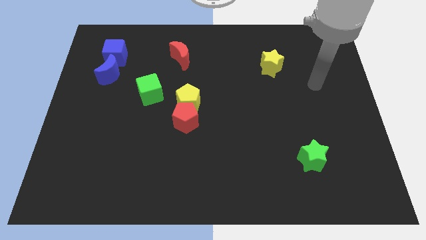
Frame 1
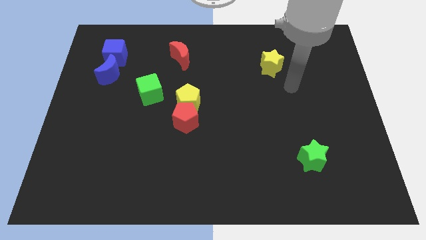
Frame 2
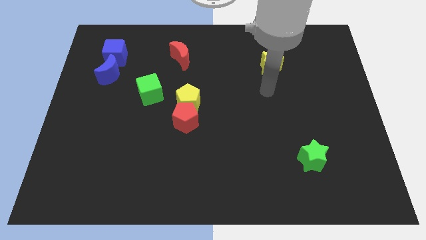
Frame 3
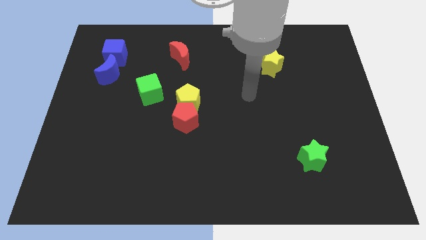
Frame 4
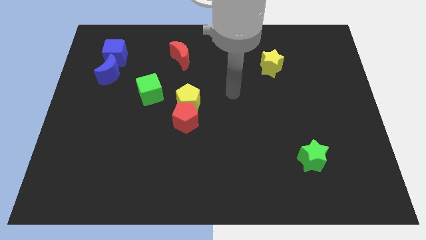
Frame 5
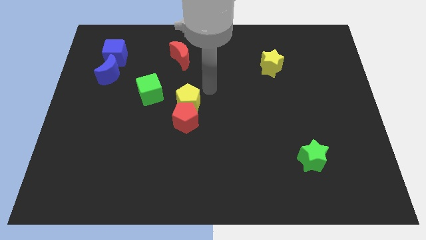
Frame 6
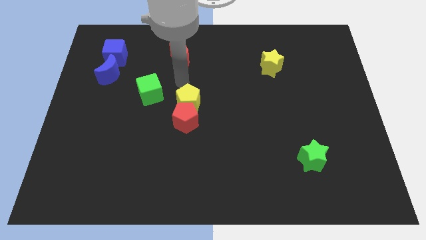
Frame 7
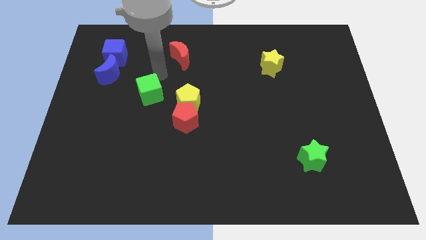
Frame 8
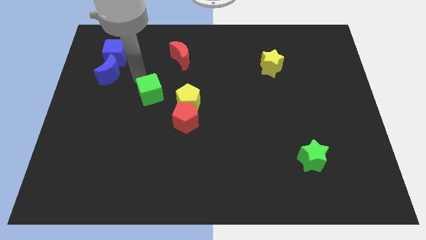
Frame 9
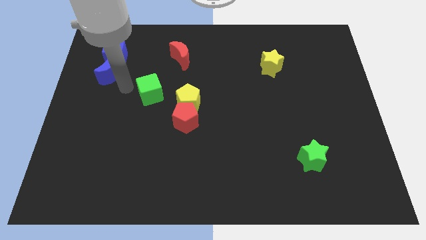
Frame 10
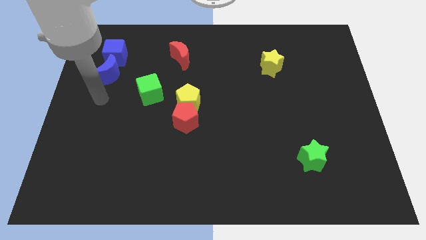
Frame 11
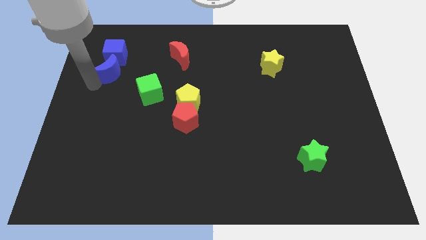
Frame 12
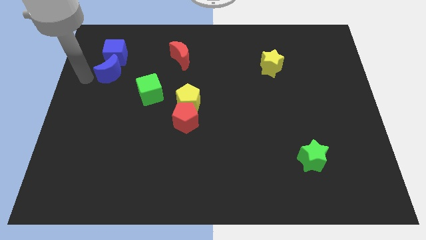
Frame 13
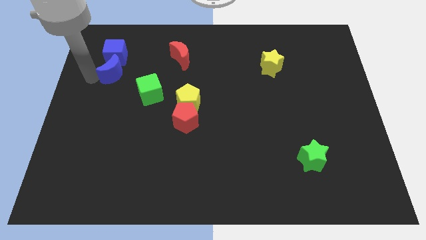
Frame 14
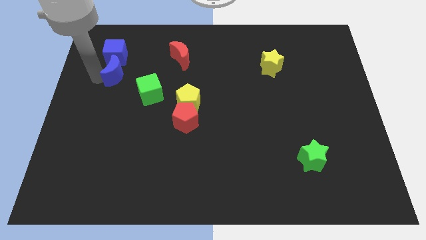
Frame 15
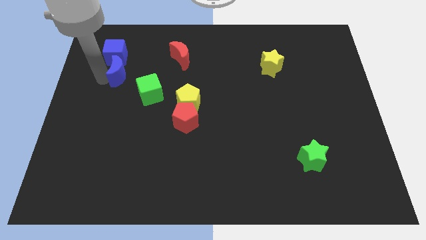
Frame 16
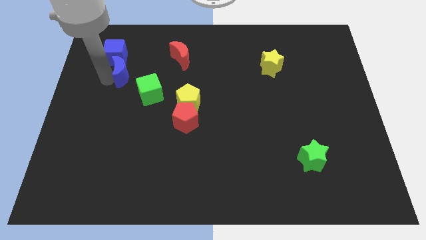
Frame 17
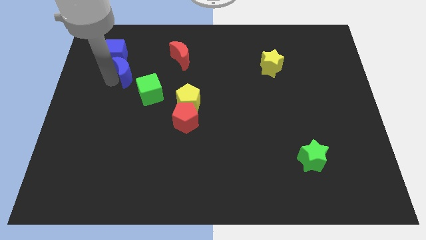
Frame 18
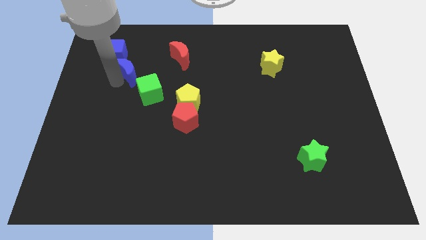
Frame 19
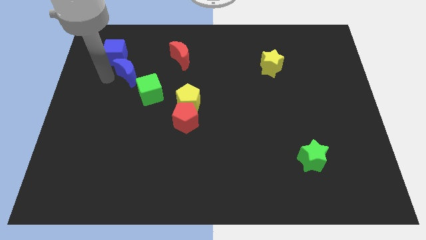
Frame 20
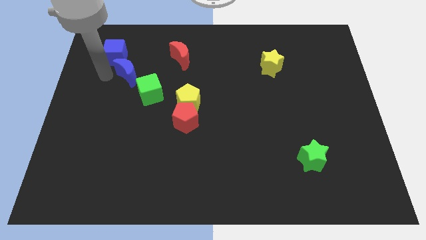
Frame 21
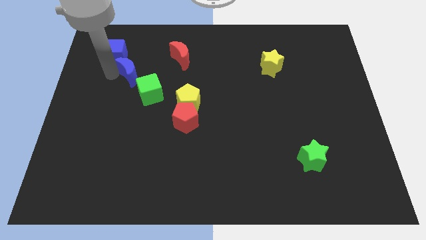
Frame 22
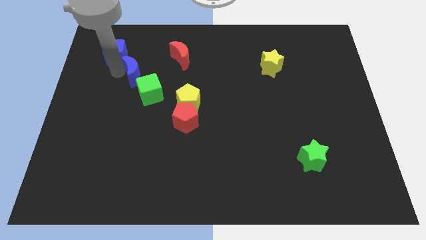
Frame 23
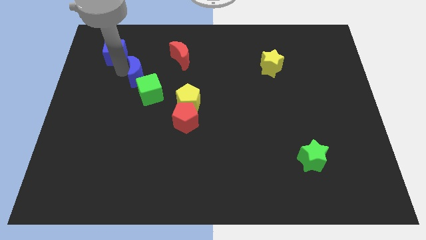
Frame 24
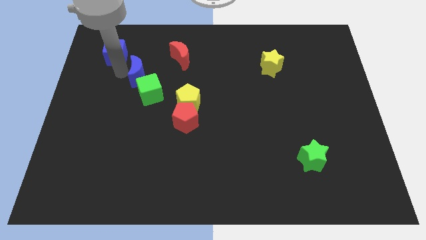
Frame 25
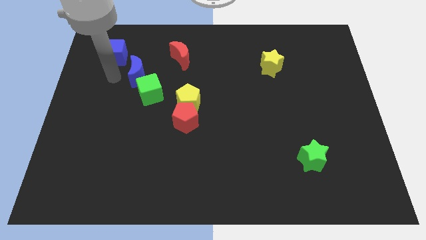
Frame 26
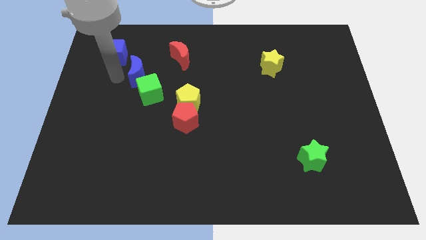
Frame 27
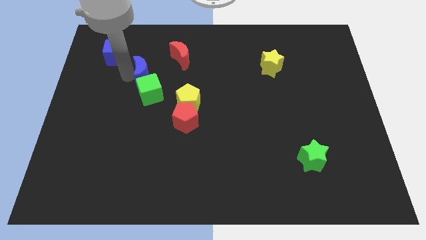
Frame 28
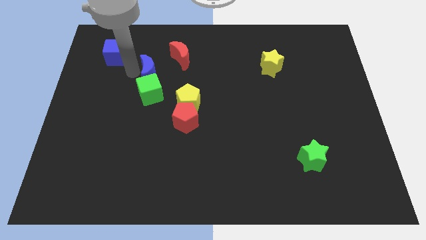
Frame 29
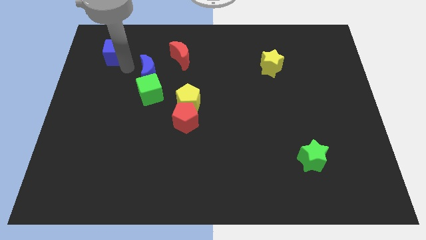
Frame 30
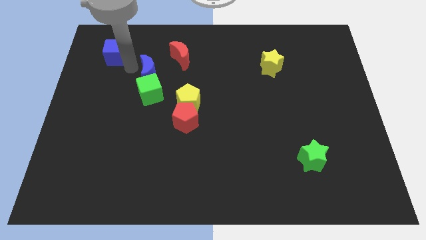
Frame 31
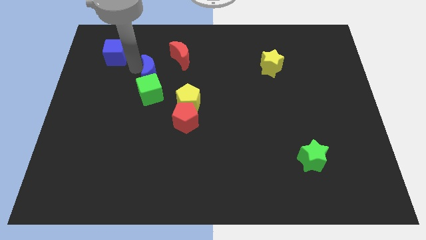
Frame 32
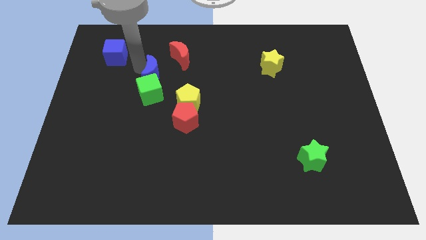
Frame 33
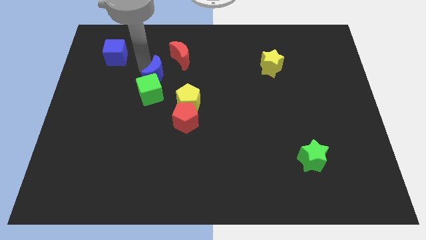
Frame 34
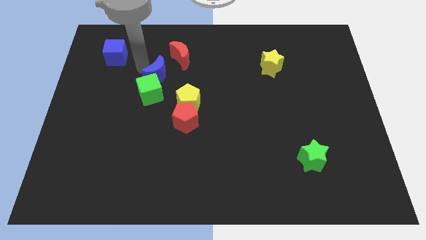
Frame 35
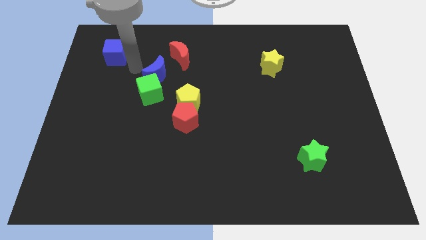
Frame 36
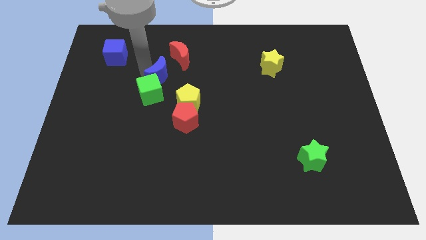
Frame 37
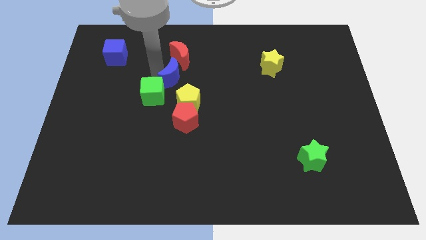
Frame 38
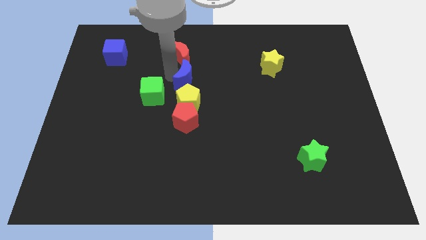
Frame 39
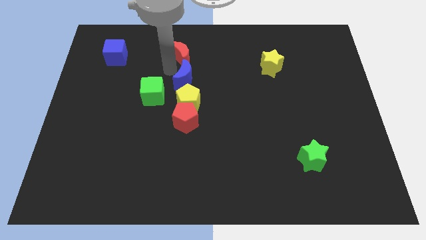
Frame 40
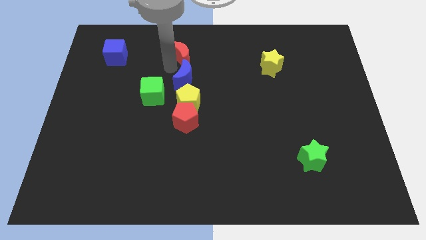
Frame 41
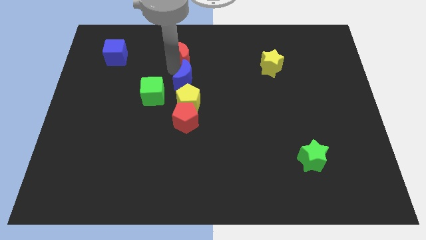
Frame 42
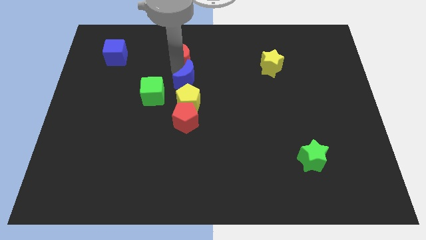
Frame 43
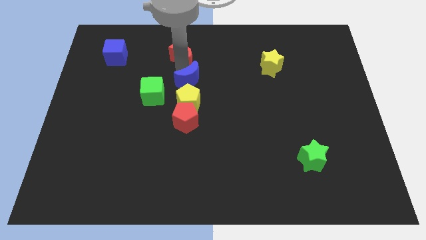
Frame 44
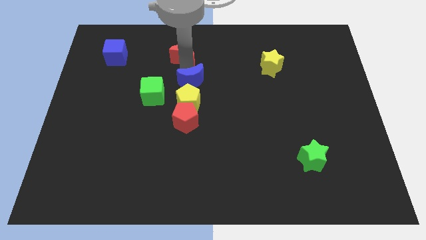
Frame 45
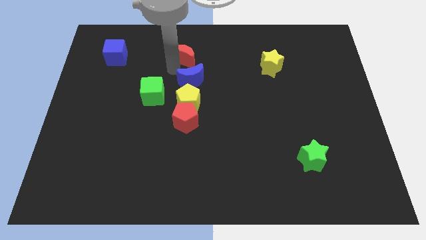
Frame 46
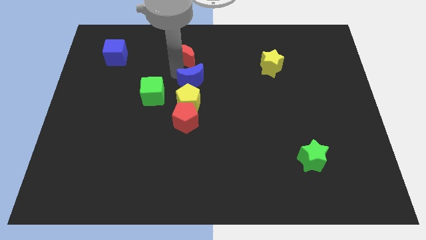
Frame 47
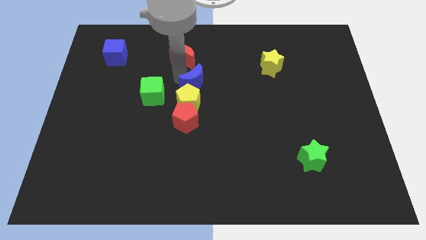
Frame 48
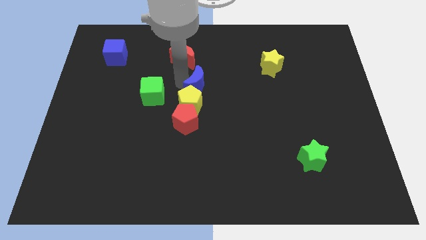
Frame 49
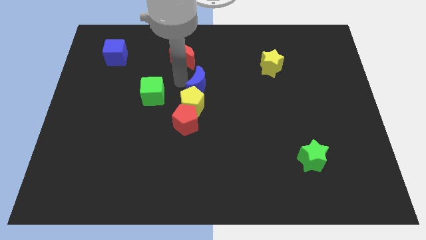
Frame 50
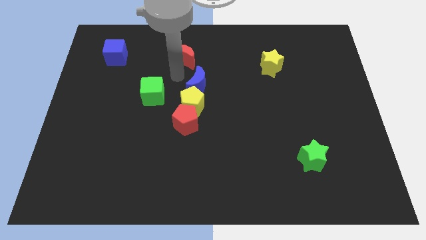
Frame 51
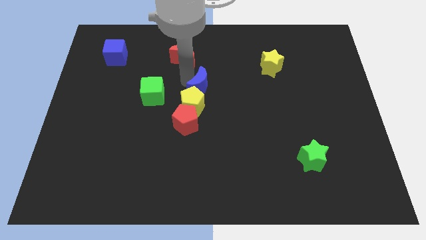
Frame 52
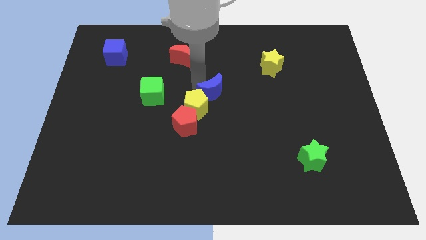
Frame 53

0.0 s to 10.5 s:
put the blue moon just right of the yellow pentagon

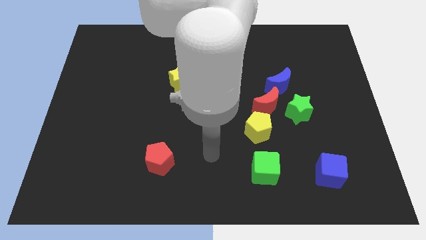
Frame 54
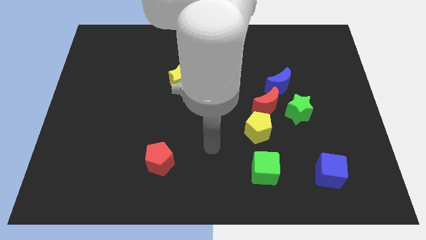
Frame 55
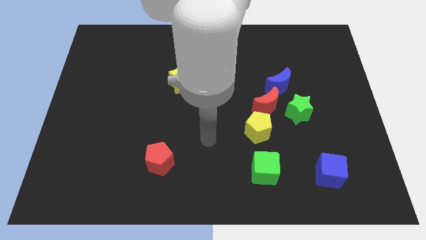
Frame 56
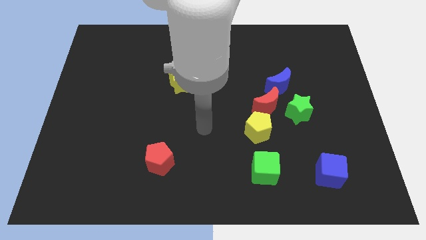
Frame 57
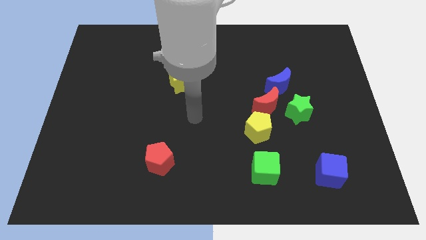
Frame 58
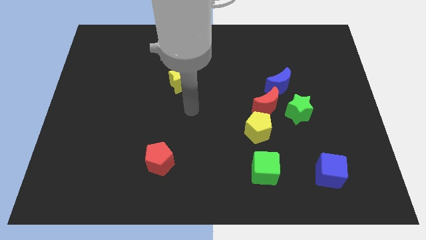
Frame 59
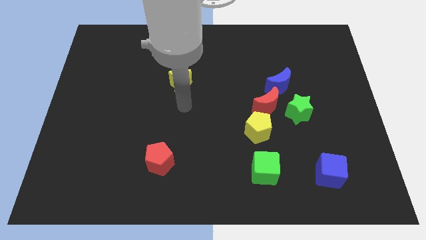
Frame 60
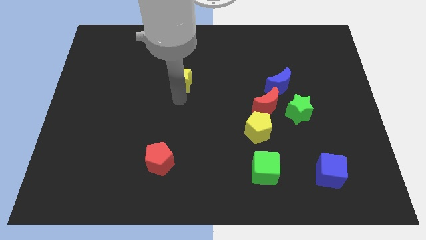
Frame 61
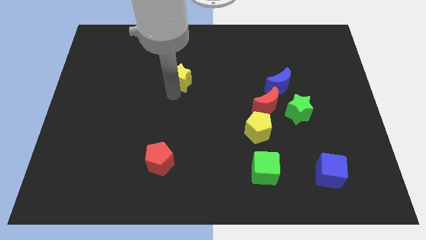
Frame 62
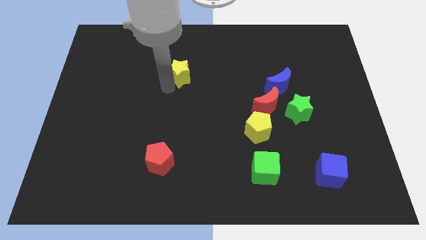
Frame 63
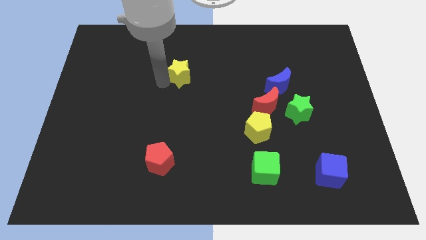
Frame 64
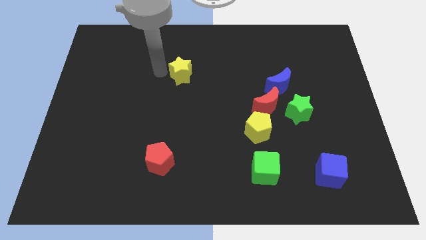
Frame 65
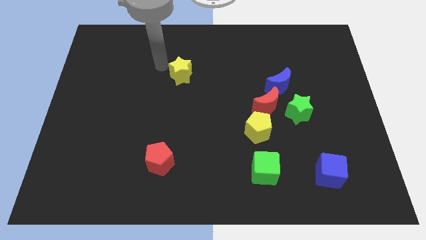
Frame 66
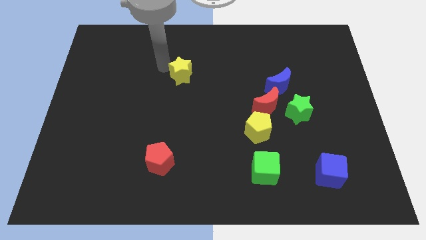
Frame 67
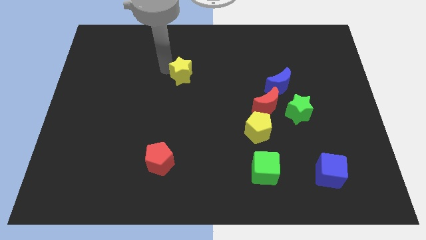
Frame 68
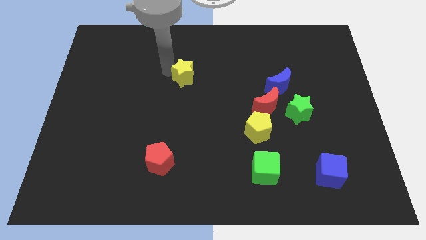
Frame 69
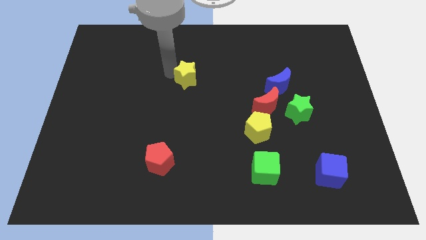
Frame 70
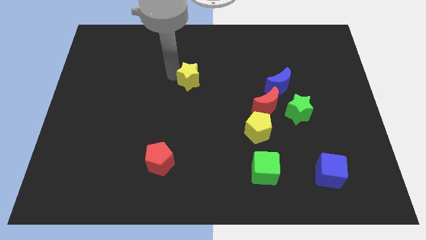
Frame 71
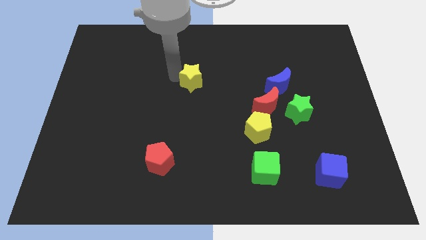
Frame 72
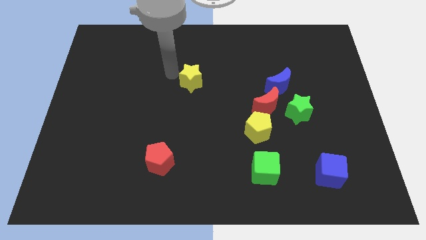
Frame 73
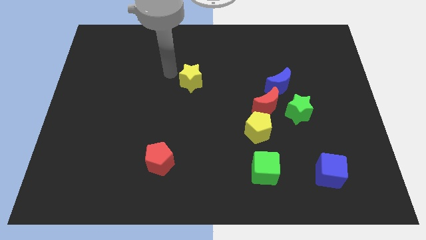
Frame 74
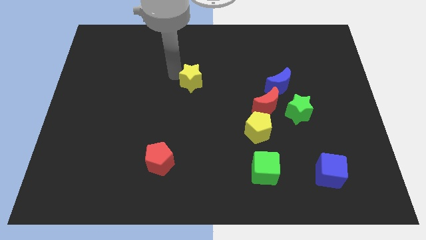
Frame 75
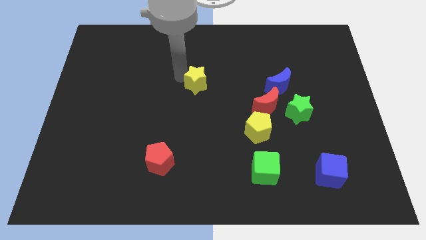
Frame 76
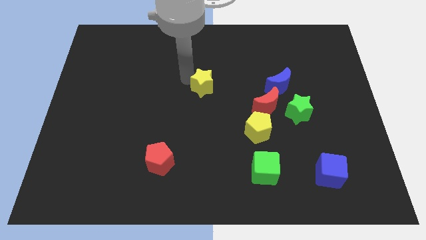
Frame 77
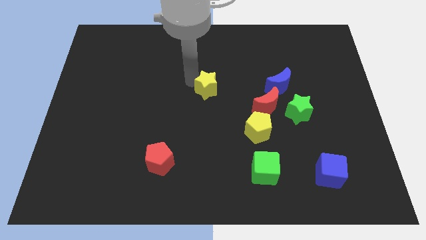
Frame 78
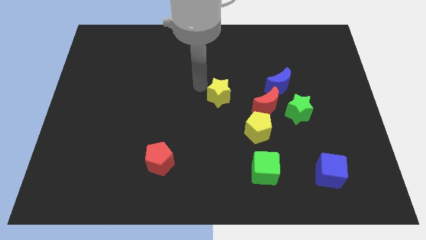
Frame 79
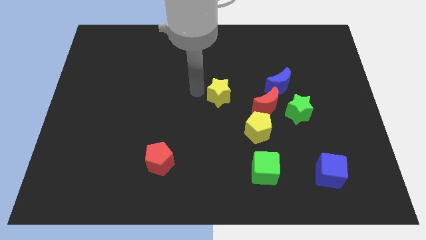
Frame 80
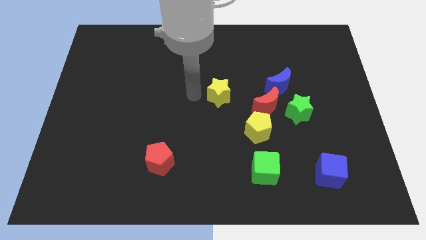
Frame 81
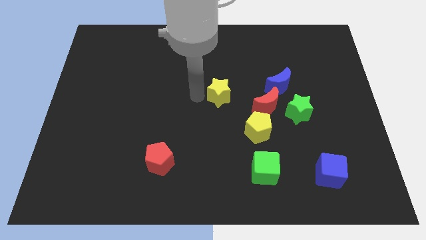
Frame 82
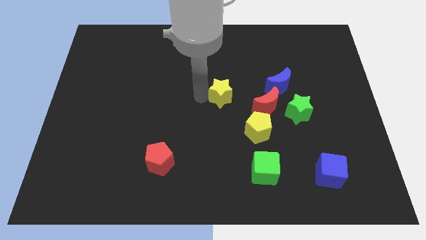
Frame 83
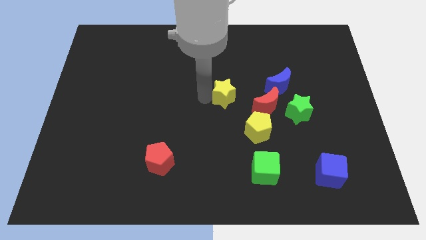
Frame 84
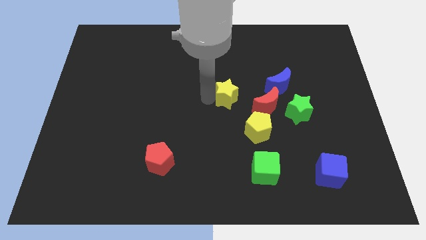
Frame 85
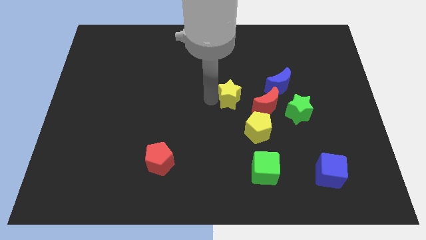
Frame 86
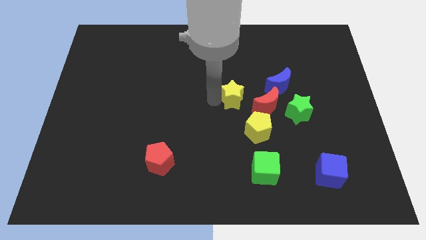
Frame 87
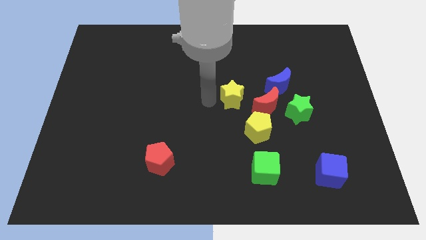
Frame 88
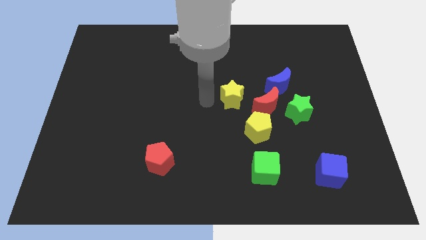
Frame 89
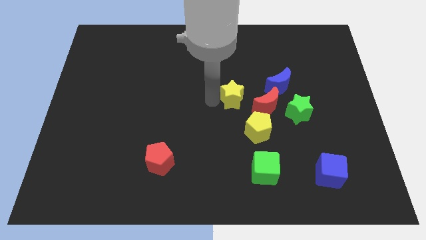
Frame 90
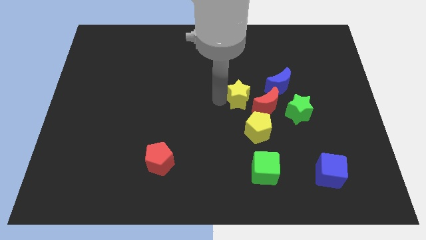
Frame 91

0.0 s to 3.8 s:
move the yellow star to the top side of the yellow pentagon
